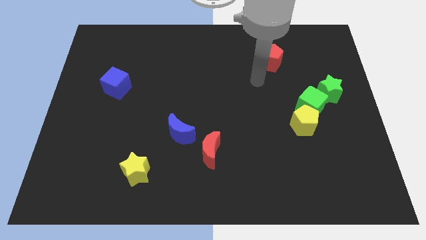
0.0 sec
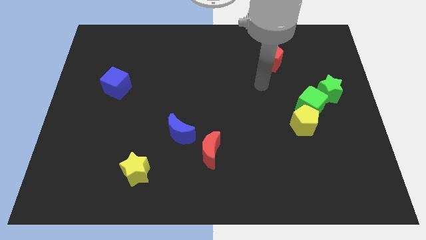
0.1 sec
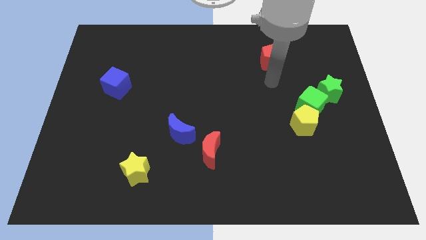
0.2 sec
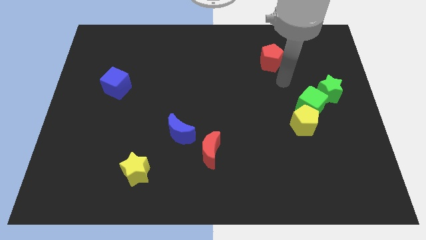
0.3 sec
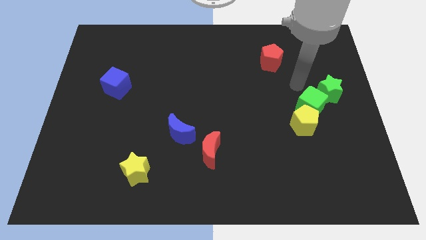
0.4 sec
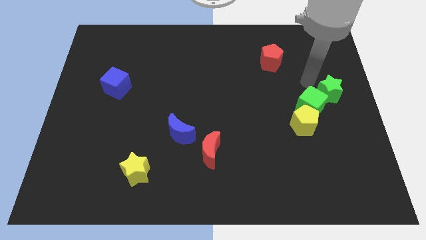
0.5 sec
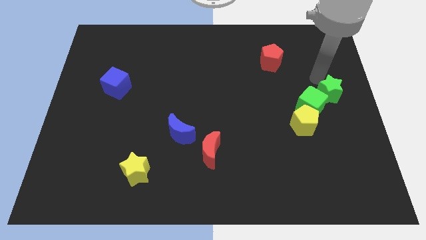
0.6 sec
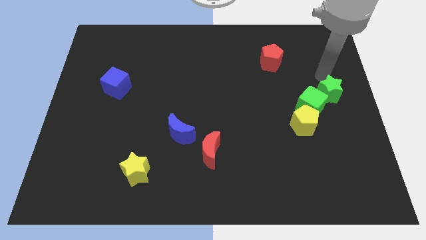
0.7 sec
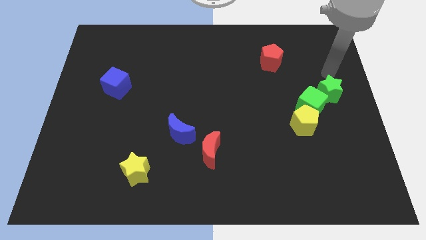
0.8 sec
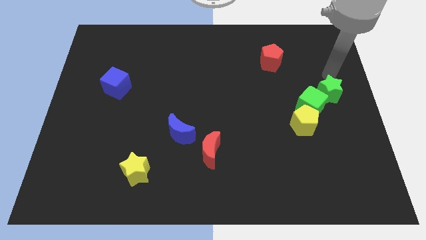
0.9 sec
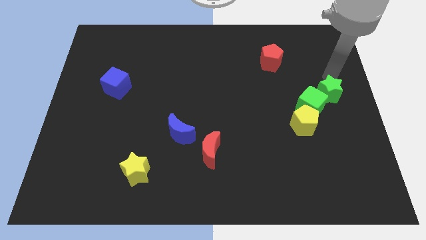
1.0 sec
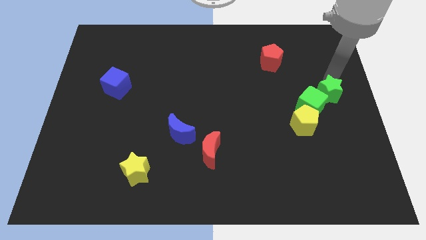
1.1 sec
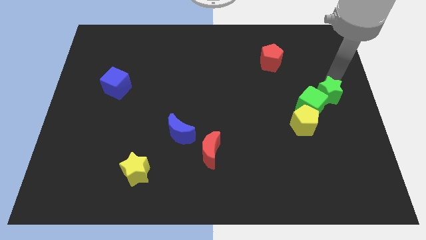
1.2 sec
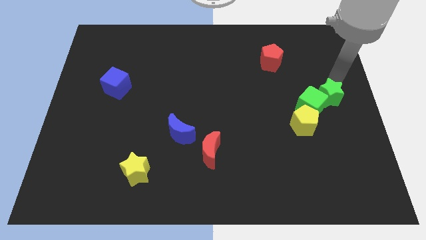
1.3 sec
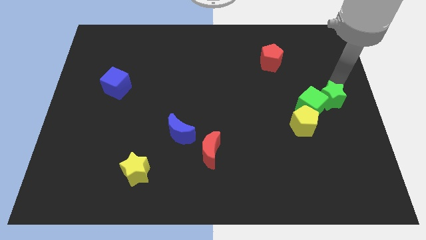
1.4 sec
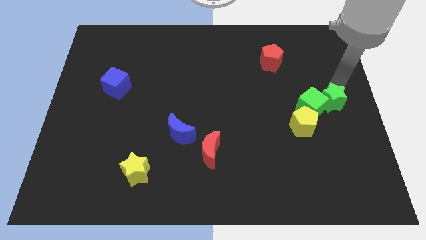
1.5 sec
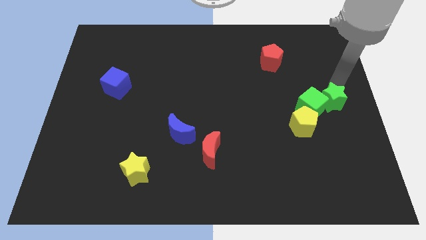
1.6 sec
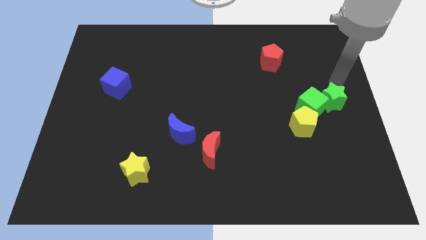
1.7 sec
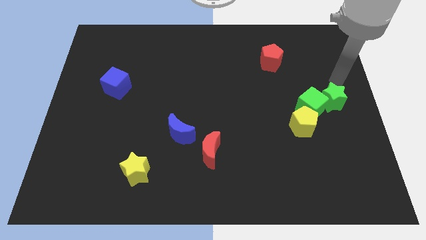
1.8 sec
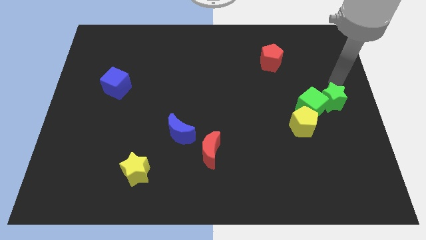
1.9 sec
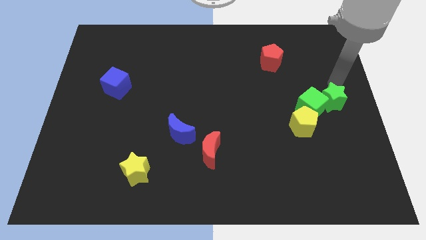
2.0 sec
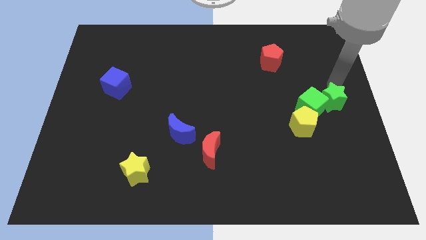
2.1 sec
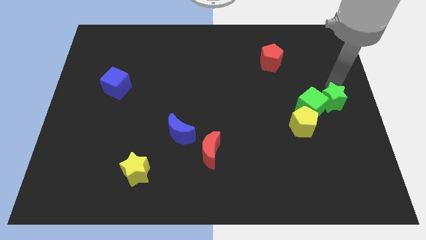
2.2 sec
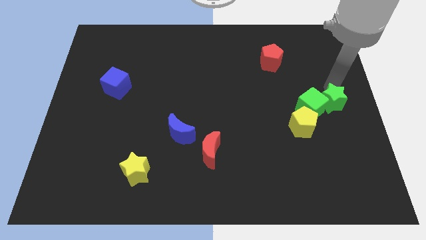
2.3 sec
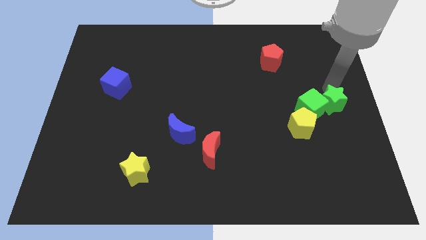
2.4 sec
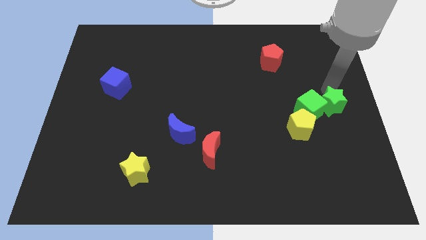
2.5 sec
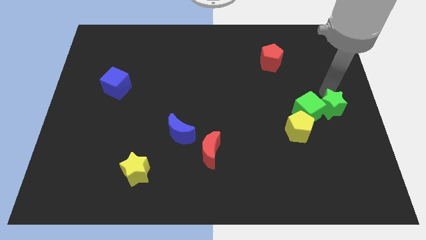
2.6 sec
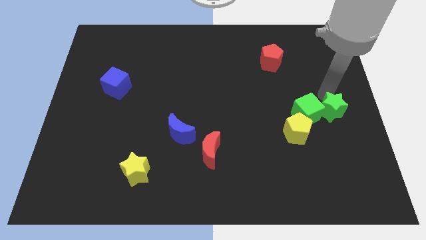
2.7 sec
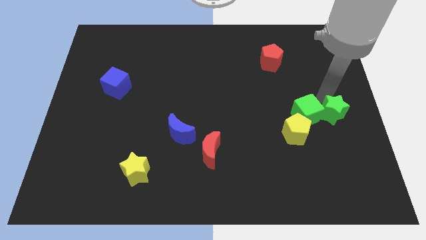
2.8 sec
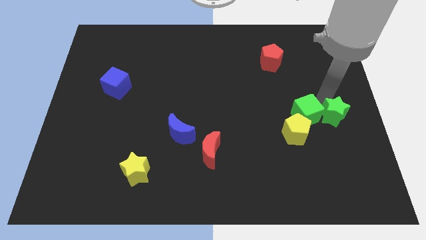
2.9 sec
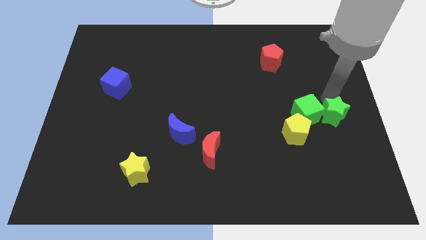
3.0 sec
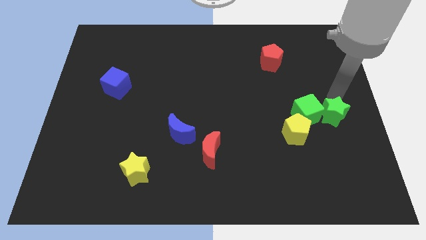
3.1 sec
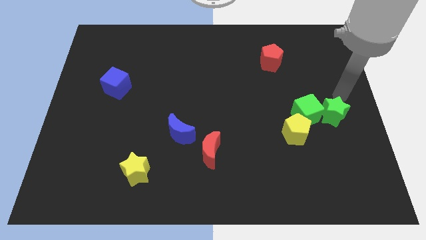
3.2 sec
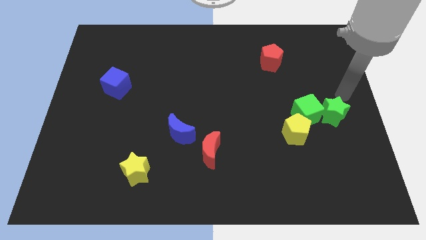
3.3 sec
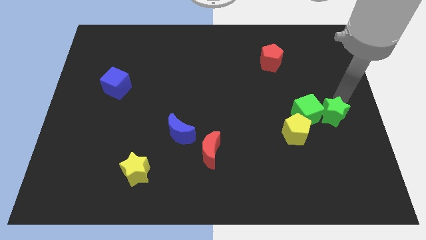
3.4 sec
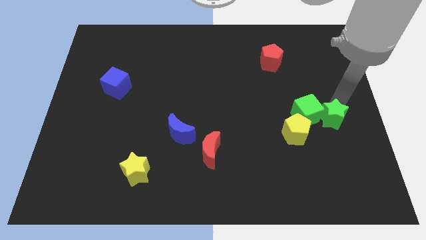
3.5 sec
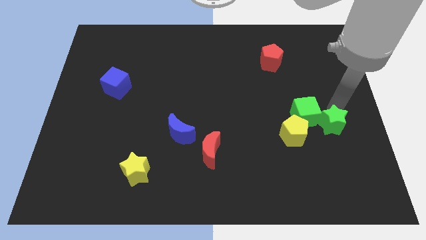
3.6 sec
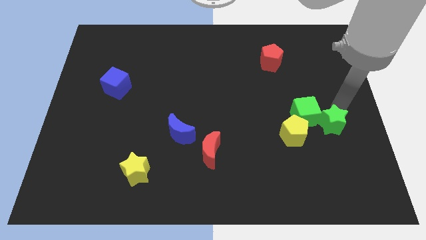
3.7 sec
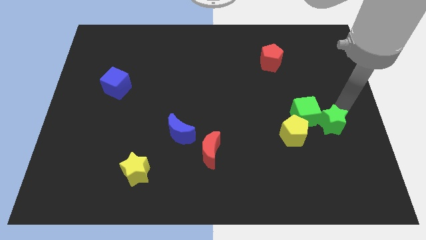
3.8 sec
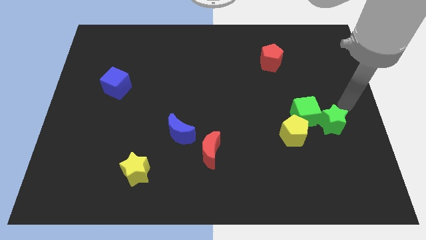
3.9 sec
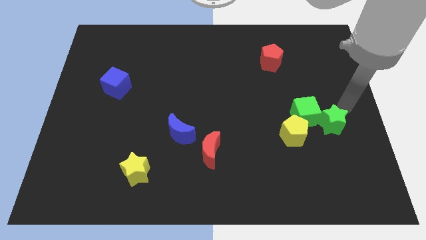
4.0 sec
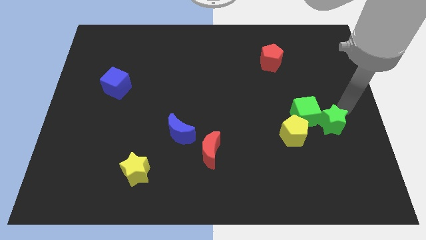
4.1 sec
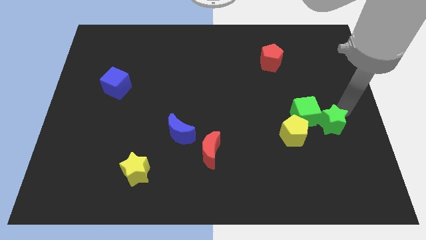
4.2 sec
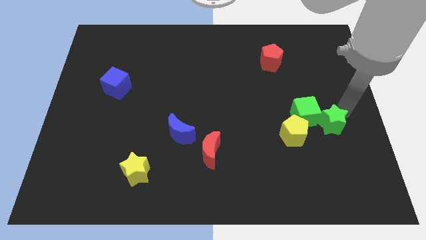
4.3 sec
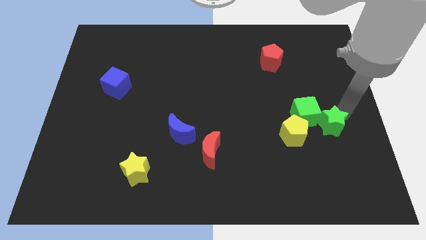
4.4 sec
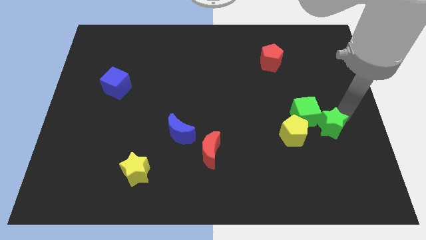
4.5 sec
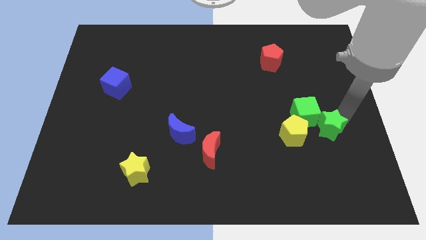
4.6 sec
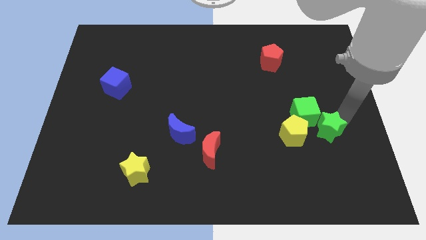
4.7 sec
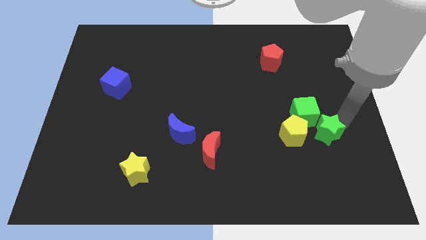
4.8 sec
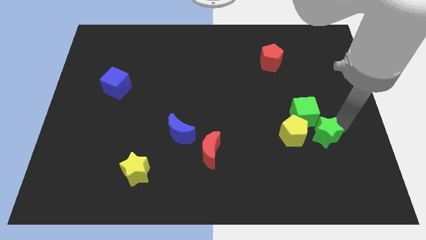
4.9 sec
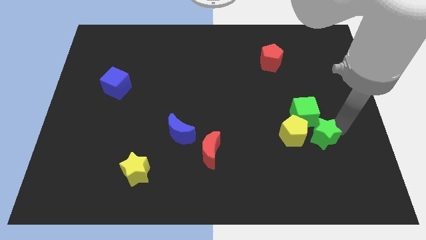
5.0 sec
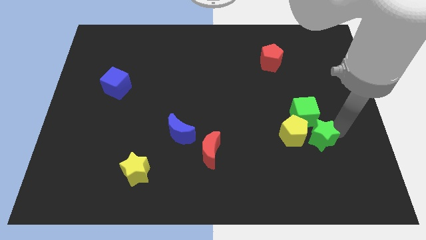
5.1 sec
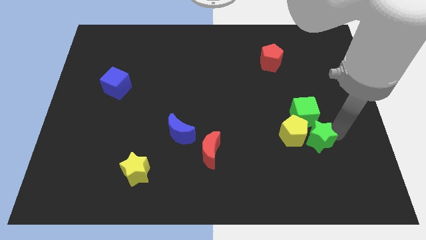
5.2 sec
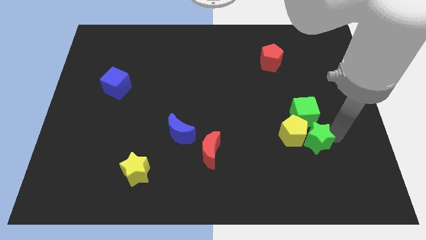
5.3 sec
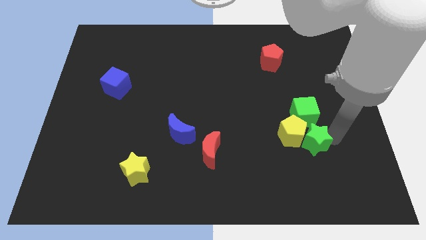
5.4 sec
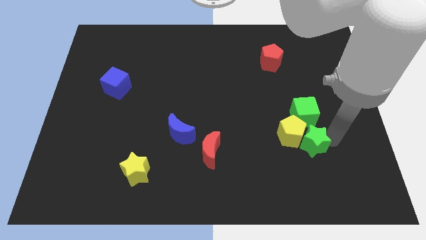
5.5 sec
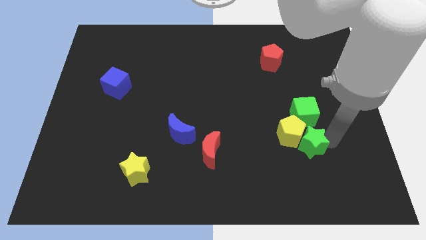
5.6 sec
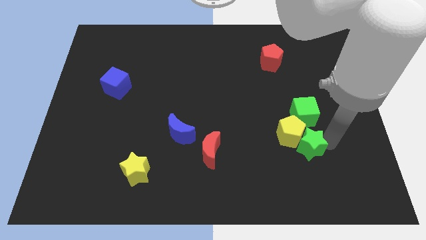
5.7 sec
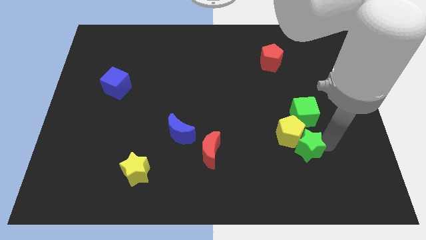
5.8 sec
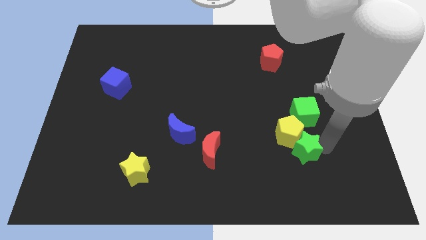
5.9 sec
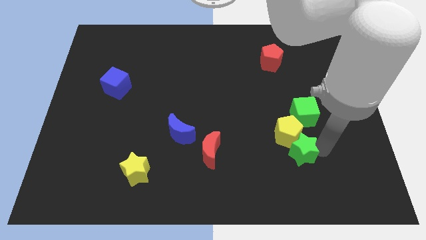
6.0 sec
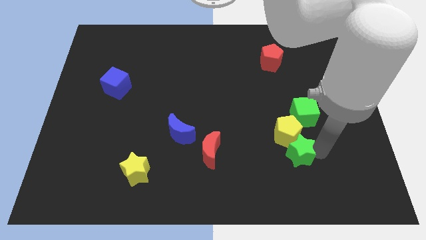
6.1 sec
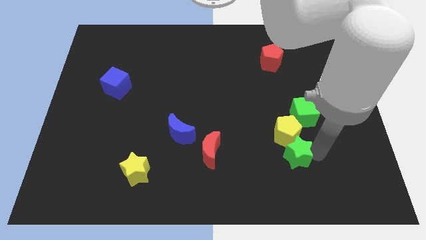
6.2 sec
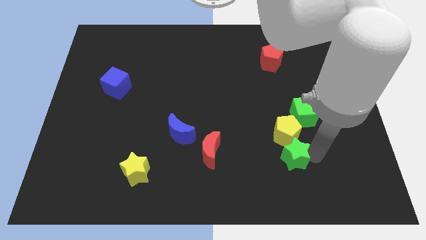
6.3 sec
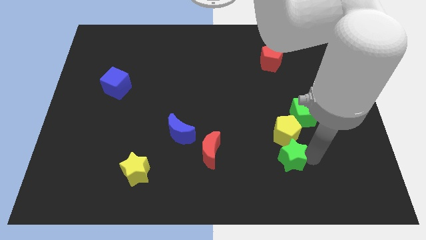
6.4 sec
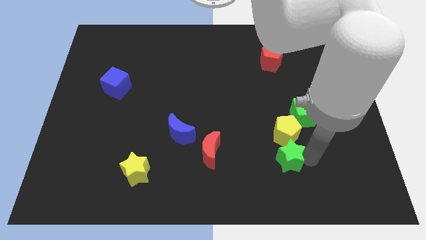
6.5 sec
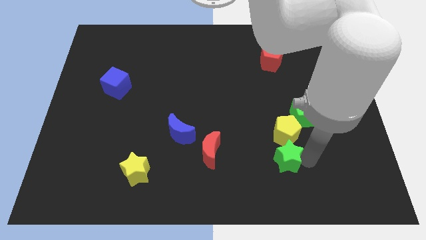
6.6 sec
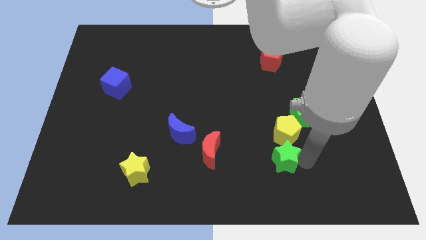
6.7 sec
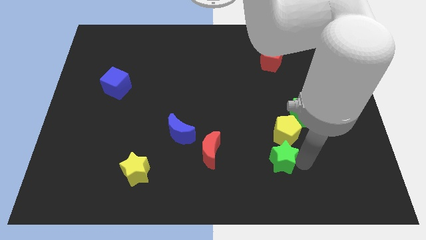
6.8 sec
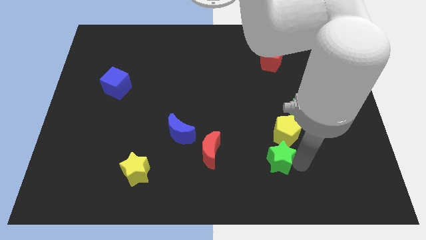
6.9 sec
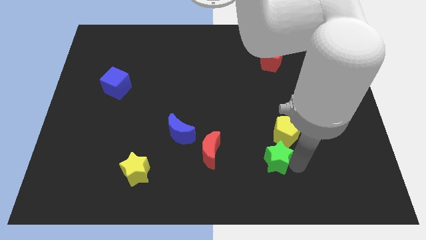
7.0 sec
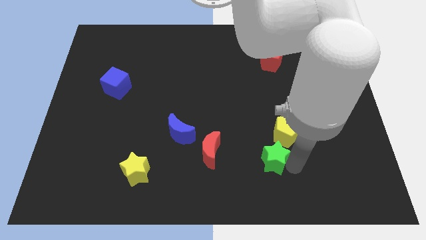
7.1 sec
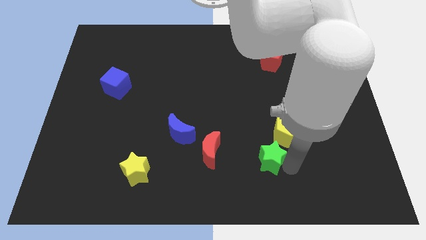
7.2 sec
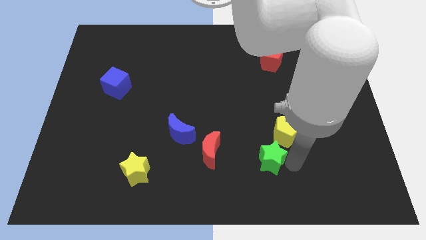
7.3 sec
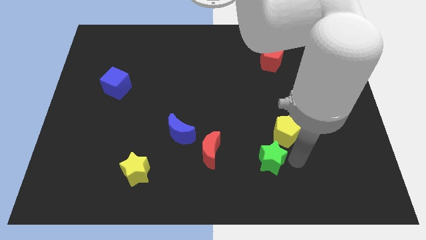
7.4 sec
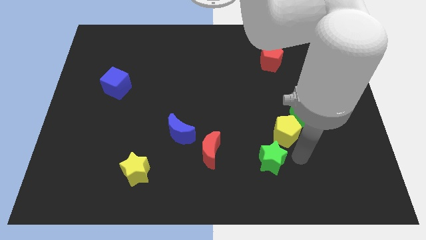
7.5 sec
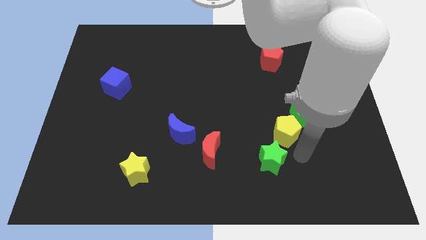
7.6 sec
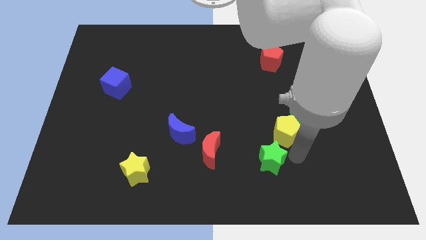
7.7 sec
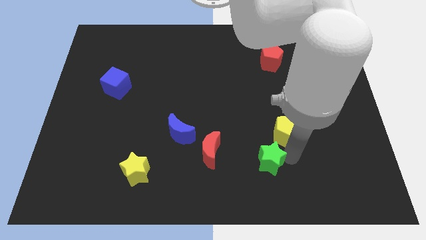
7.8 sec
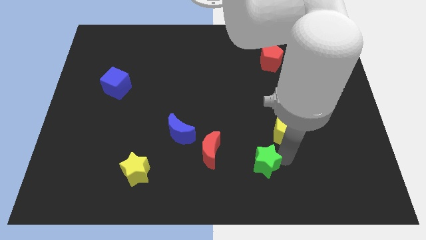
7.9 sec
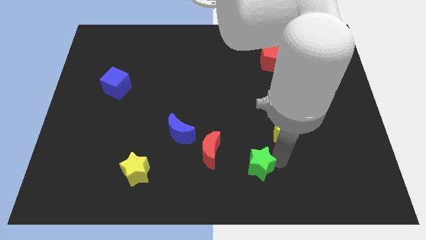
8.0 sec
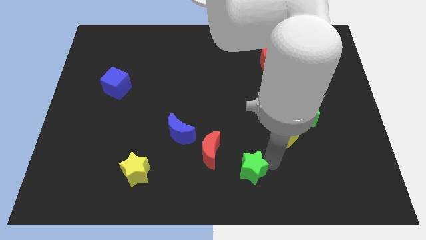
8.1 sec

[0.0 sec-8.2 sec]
put the green star to the bottom right of the red moon
